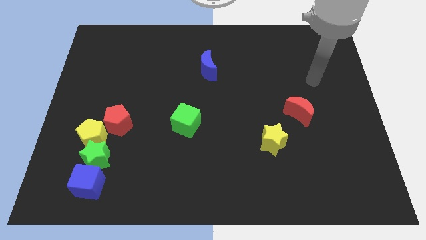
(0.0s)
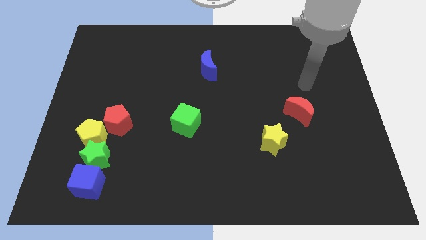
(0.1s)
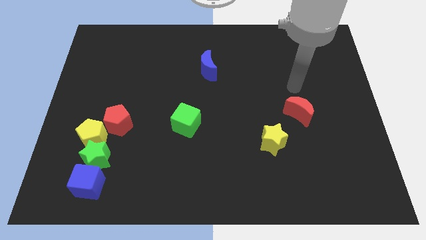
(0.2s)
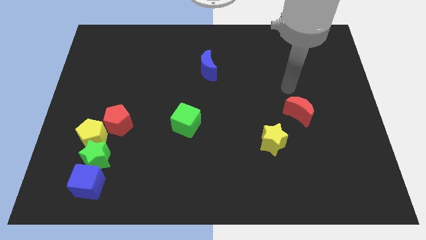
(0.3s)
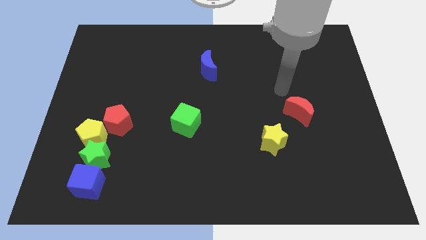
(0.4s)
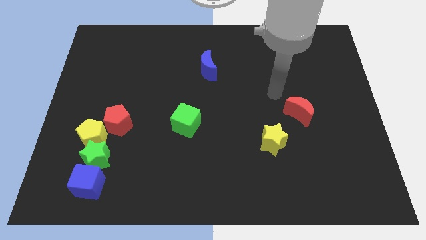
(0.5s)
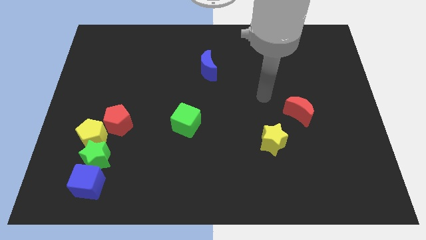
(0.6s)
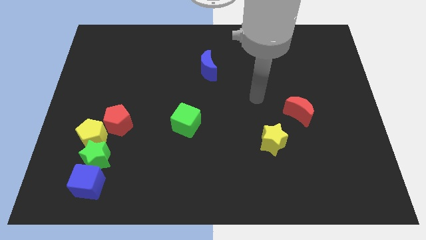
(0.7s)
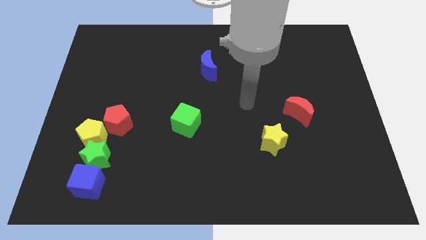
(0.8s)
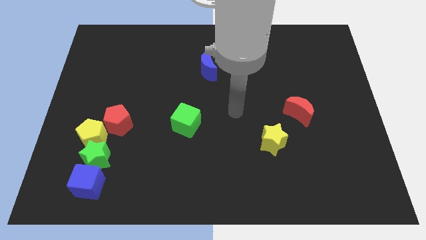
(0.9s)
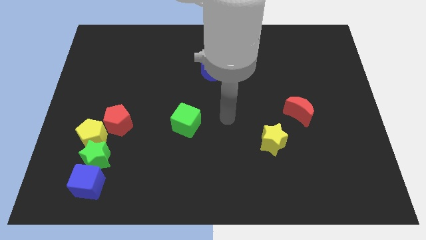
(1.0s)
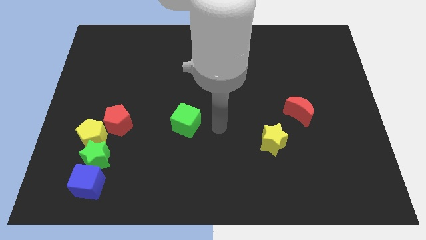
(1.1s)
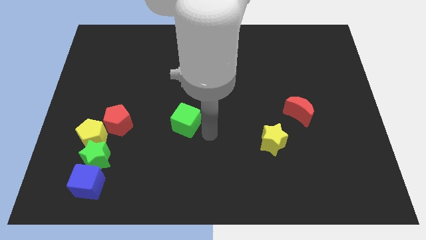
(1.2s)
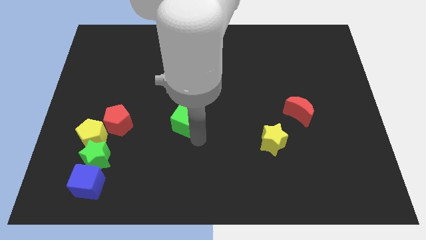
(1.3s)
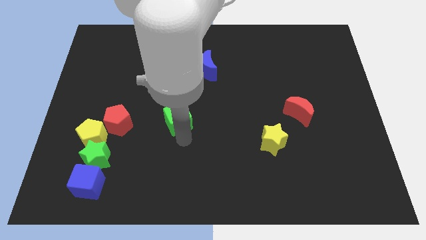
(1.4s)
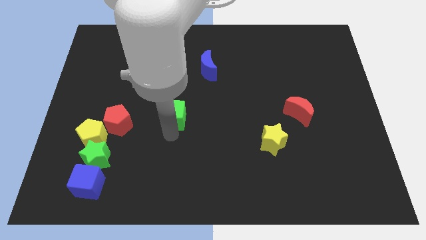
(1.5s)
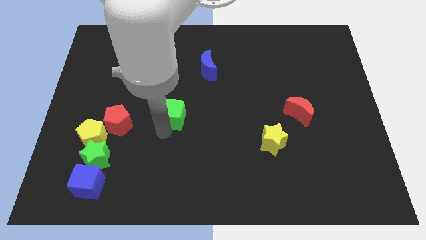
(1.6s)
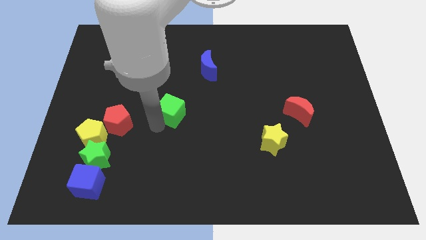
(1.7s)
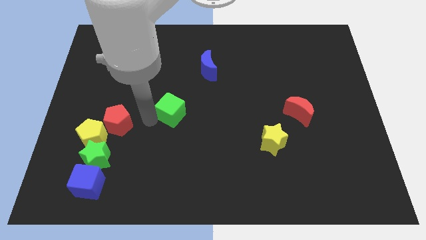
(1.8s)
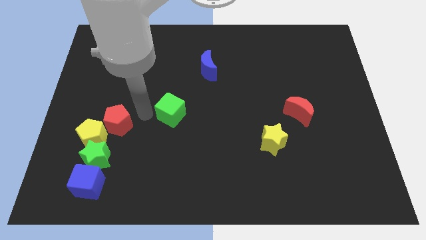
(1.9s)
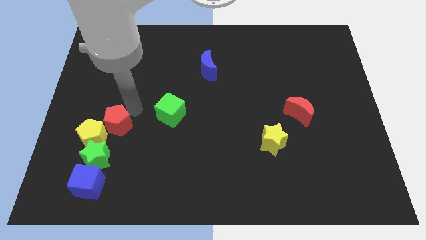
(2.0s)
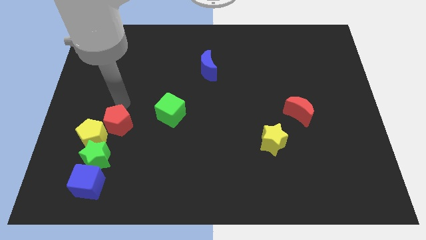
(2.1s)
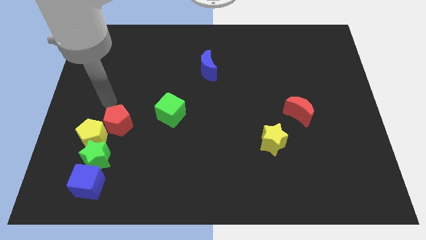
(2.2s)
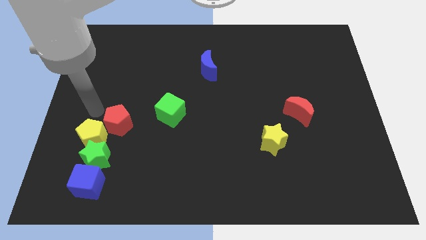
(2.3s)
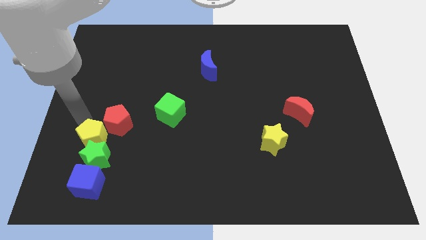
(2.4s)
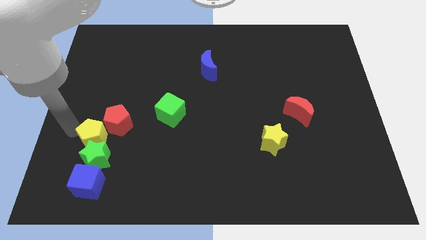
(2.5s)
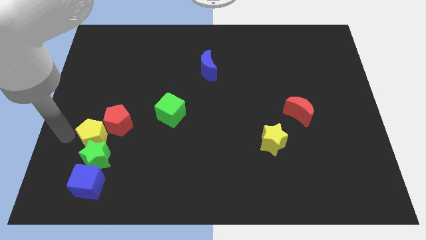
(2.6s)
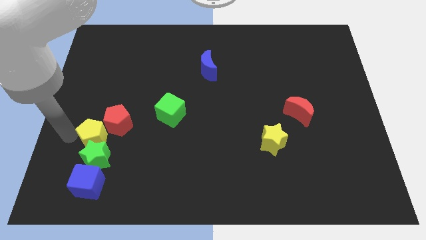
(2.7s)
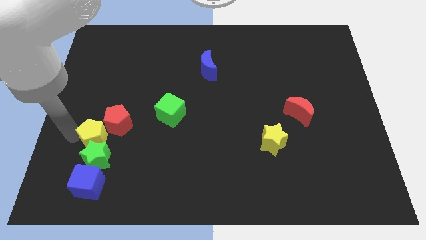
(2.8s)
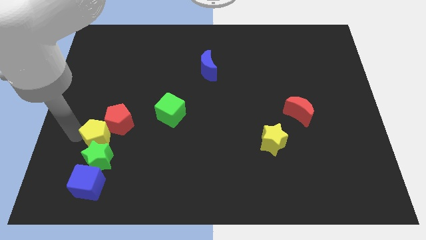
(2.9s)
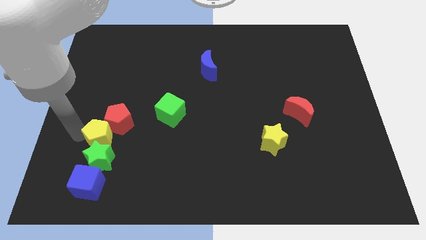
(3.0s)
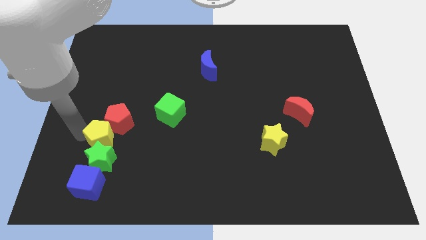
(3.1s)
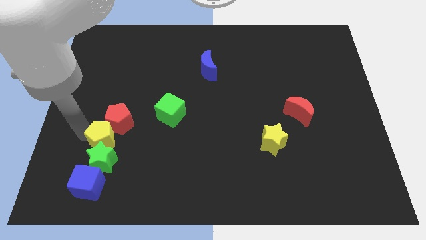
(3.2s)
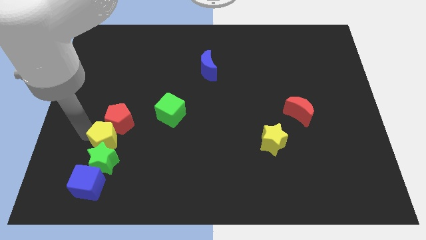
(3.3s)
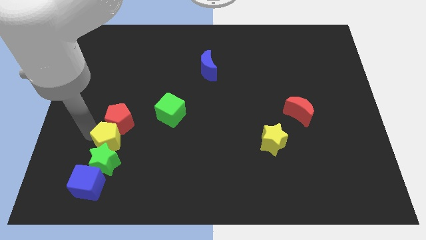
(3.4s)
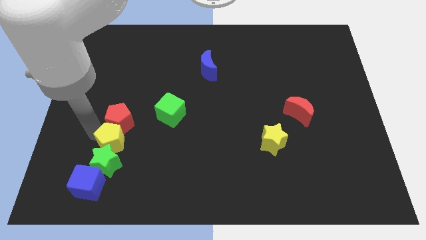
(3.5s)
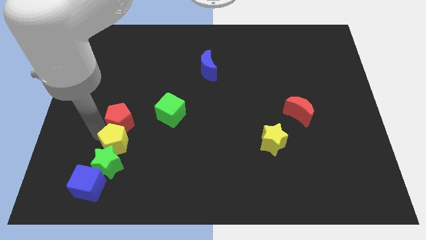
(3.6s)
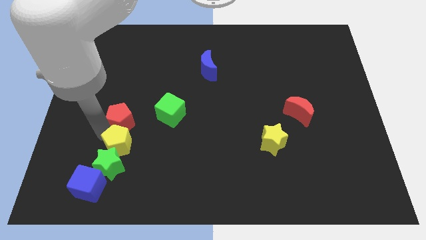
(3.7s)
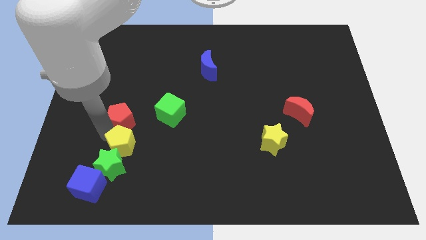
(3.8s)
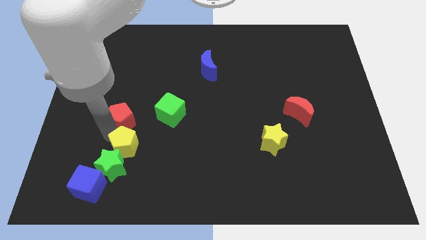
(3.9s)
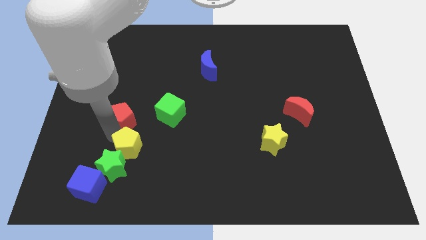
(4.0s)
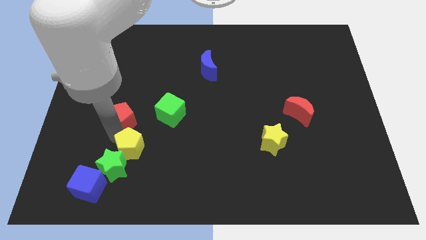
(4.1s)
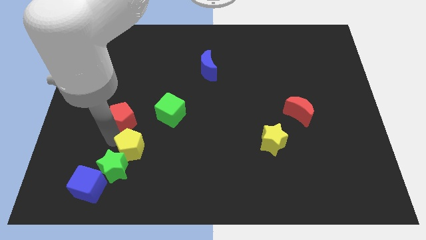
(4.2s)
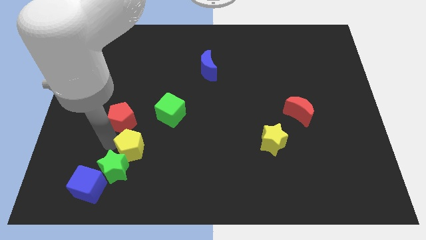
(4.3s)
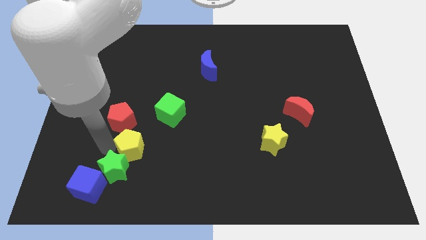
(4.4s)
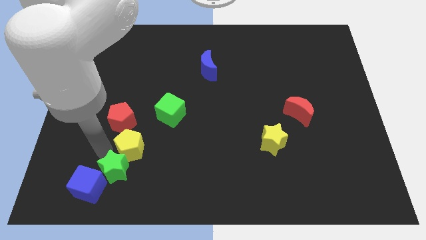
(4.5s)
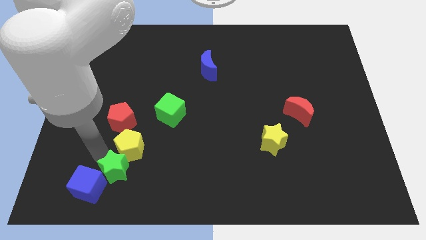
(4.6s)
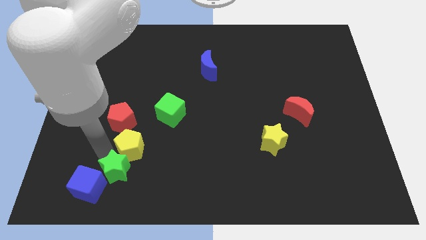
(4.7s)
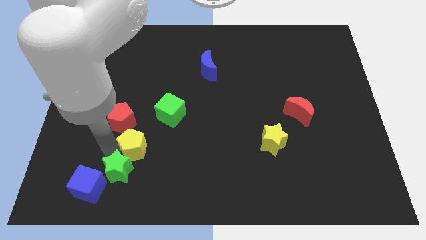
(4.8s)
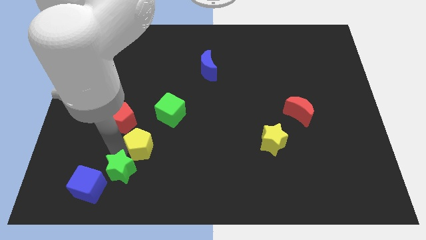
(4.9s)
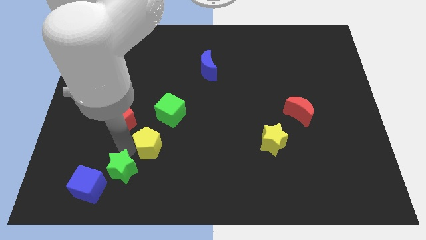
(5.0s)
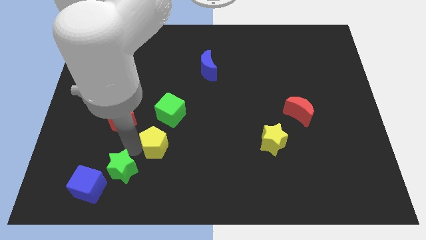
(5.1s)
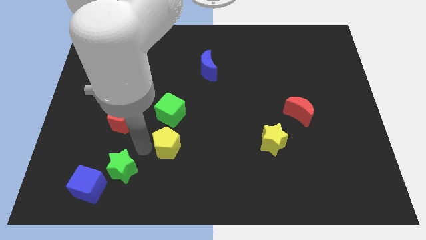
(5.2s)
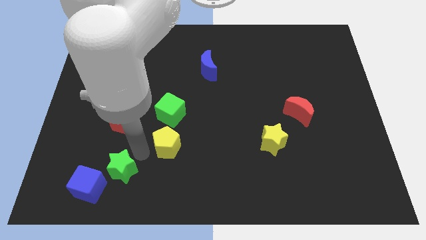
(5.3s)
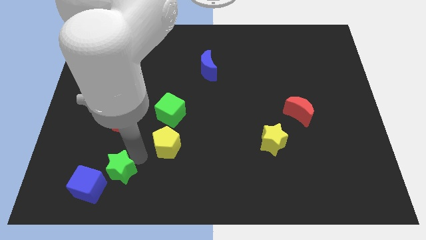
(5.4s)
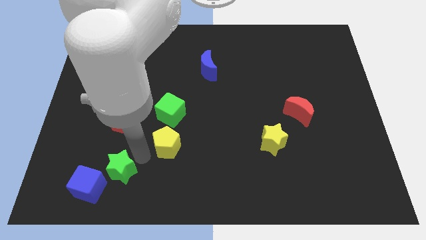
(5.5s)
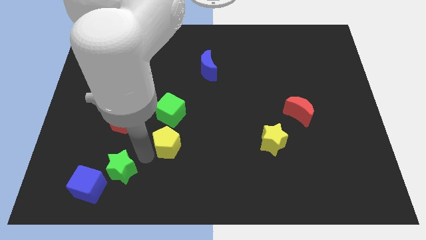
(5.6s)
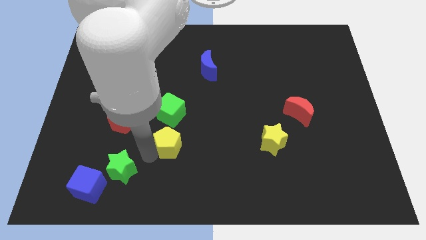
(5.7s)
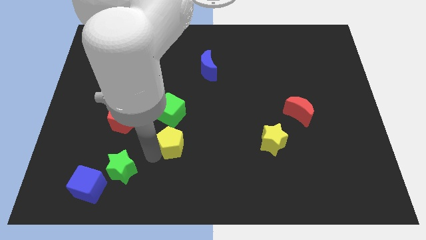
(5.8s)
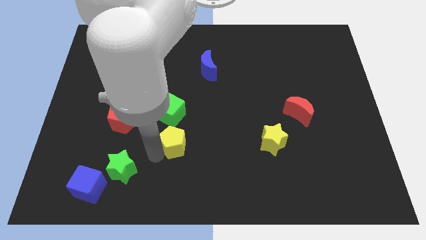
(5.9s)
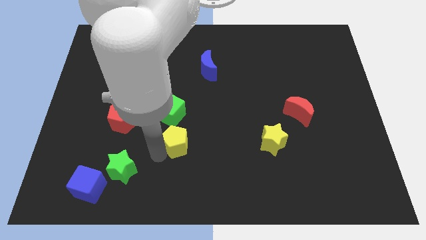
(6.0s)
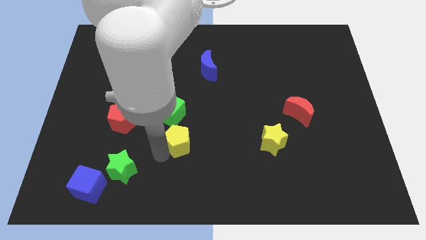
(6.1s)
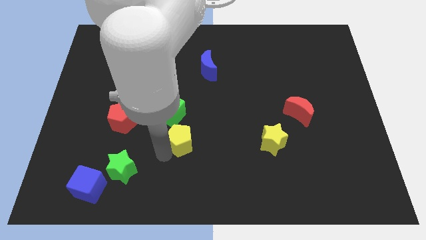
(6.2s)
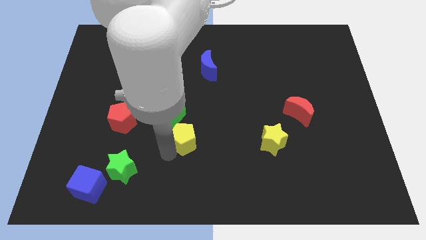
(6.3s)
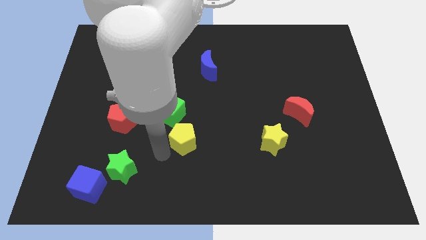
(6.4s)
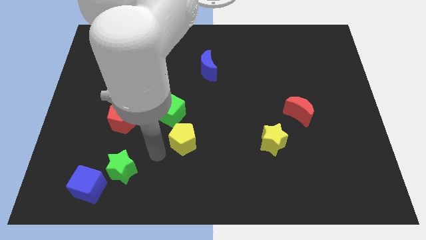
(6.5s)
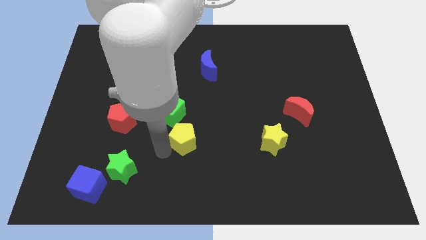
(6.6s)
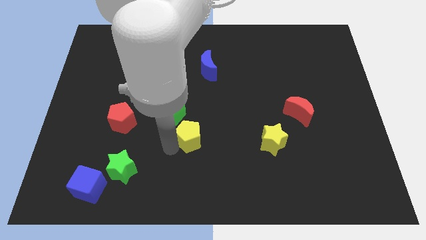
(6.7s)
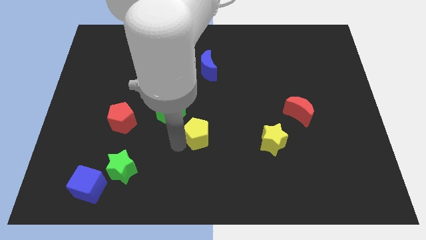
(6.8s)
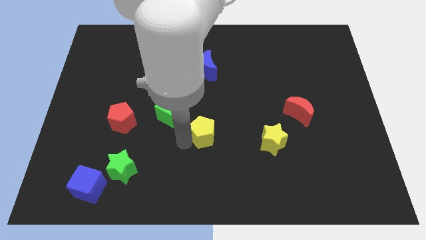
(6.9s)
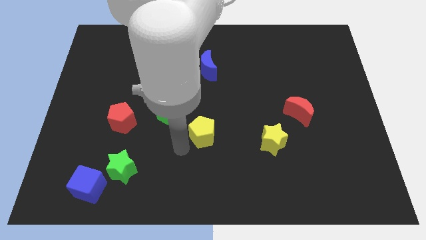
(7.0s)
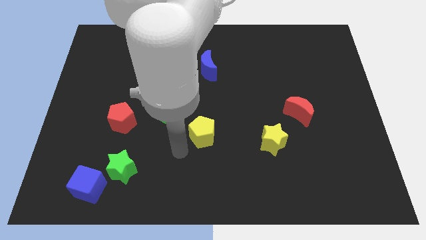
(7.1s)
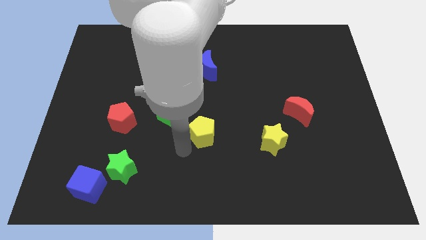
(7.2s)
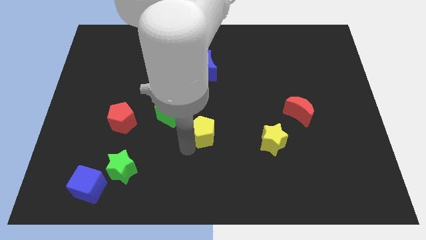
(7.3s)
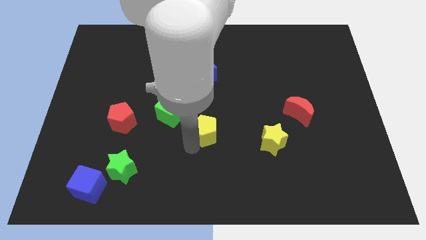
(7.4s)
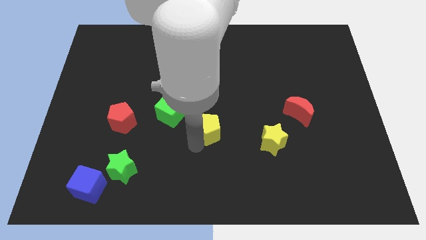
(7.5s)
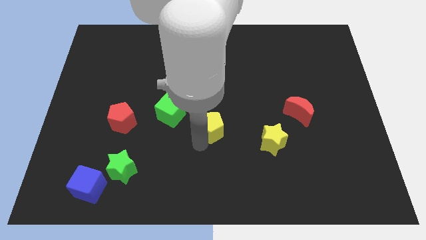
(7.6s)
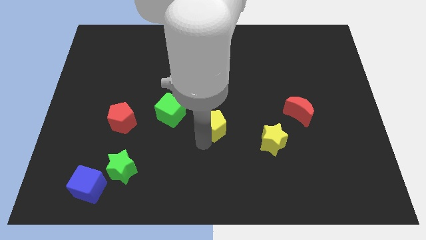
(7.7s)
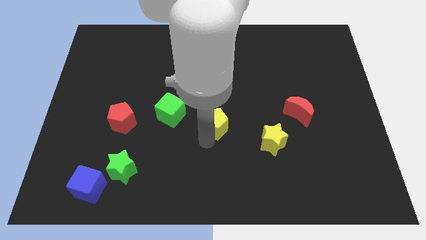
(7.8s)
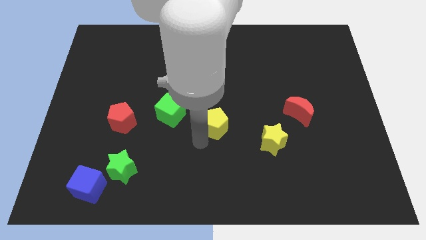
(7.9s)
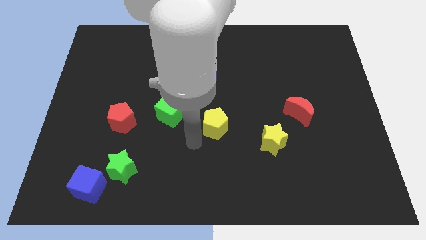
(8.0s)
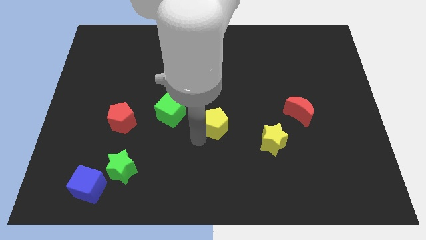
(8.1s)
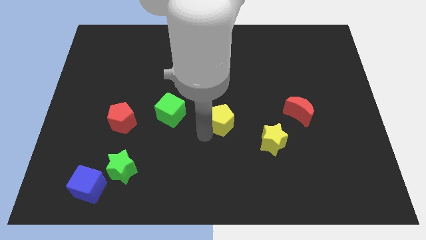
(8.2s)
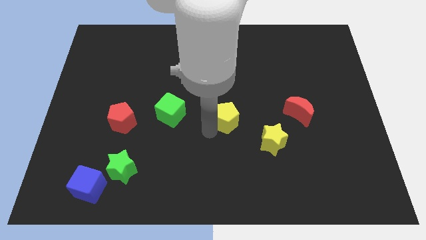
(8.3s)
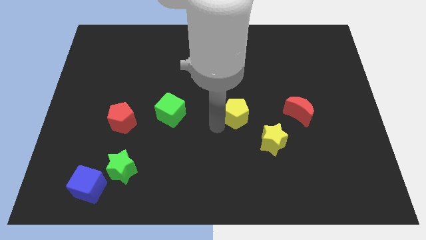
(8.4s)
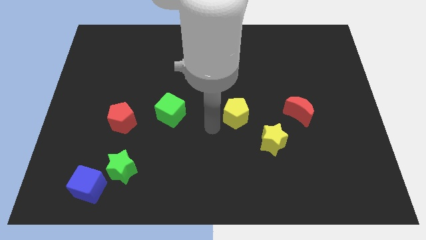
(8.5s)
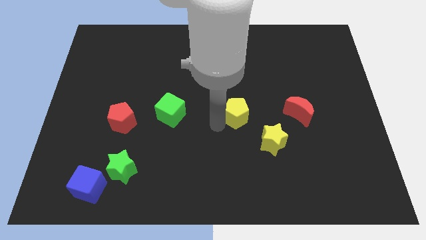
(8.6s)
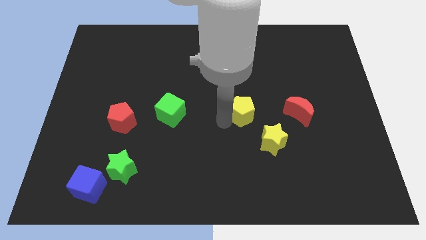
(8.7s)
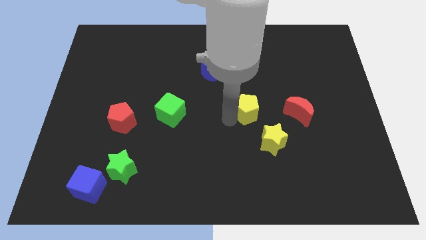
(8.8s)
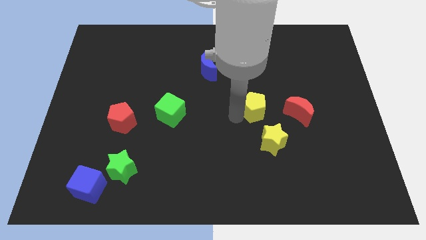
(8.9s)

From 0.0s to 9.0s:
slide the yellow pentagon above the yellow star
